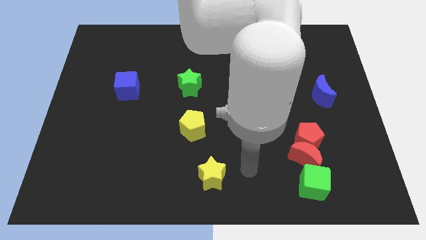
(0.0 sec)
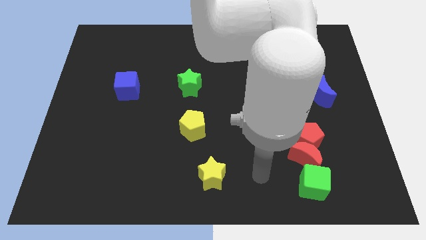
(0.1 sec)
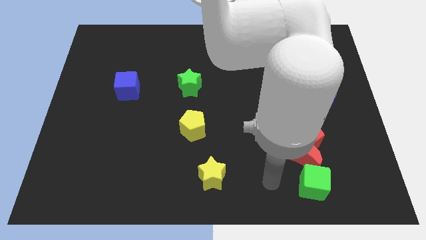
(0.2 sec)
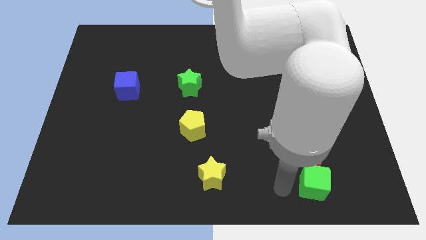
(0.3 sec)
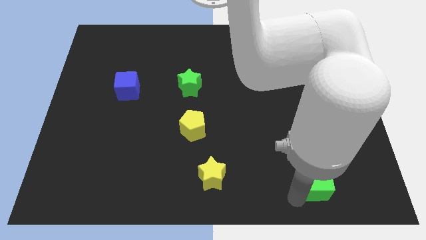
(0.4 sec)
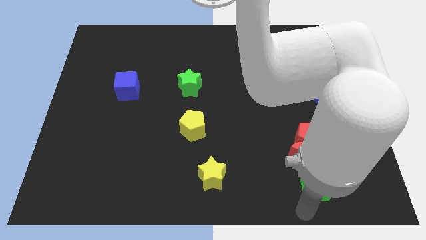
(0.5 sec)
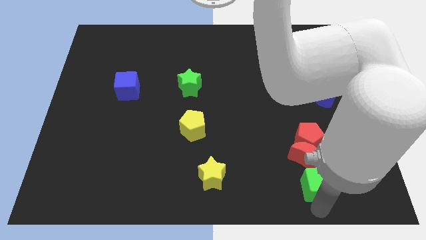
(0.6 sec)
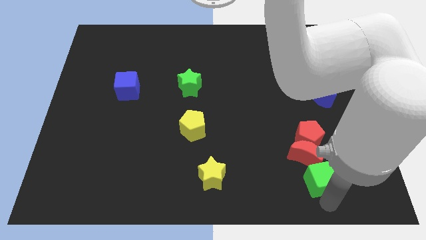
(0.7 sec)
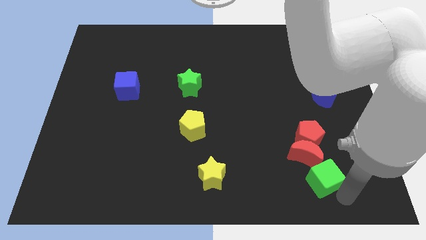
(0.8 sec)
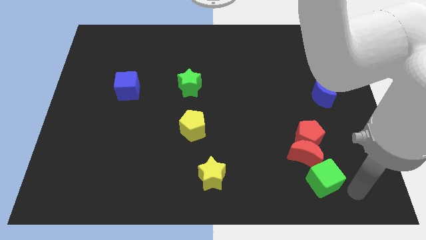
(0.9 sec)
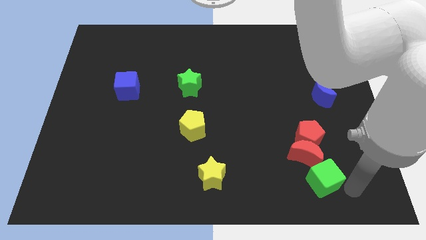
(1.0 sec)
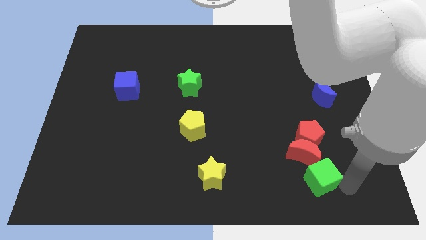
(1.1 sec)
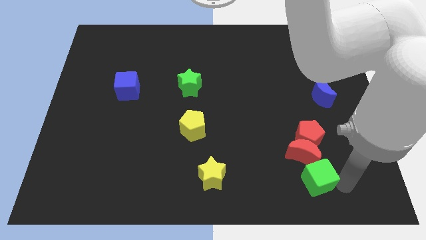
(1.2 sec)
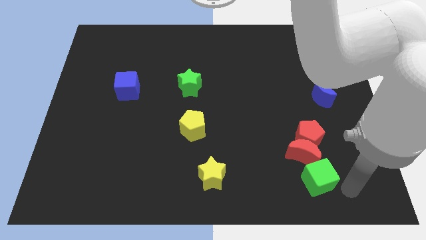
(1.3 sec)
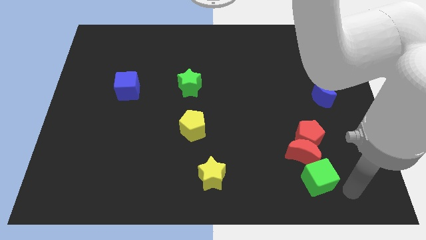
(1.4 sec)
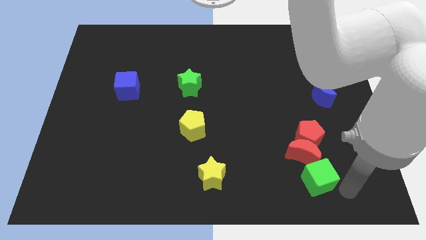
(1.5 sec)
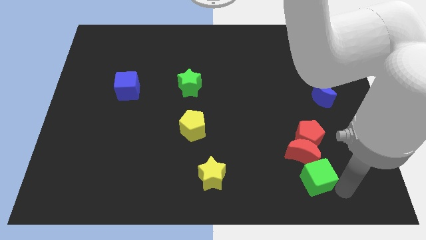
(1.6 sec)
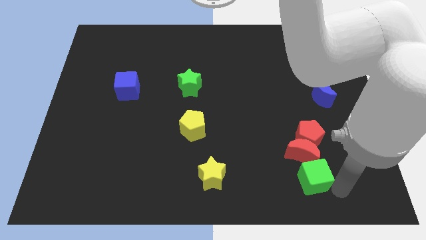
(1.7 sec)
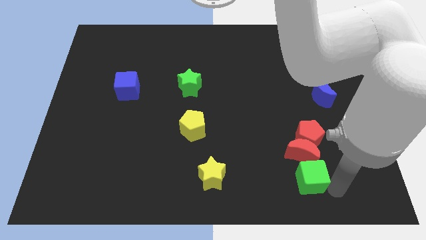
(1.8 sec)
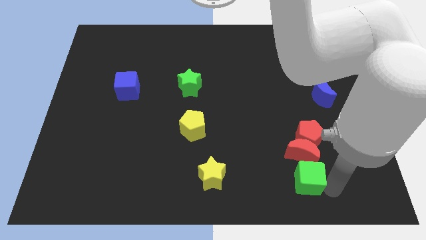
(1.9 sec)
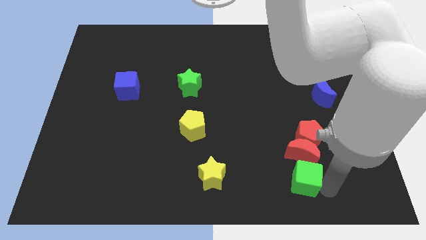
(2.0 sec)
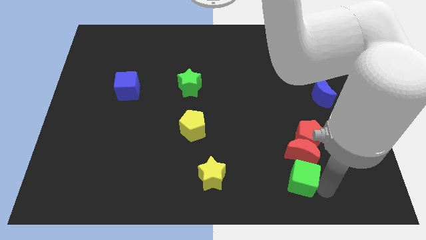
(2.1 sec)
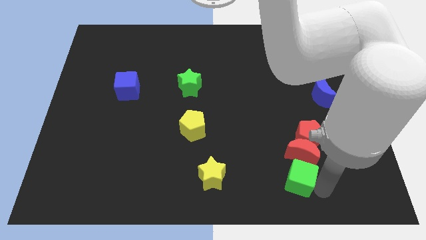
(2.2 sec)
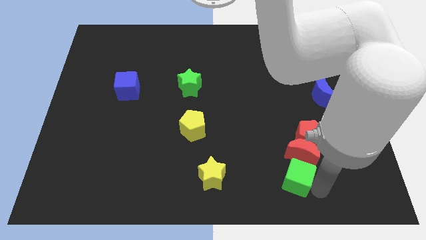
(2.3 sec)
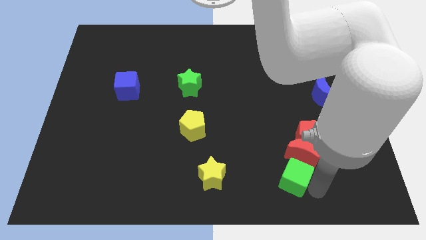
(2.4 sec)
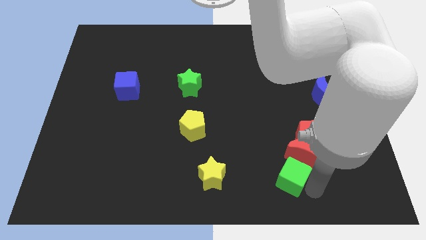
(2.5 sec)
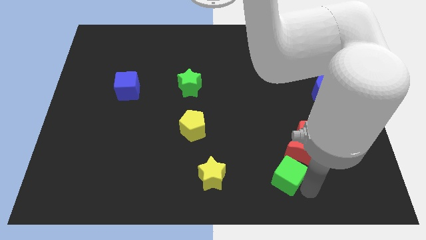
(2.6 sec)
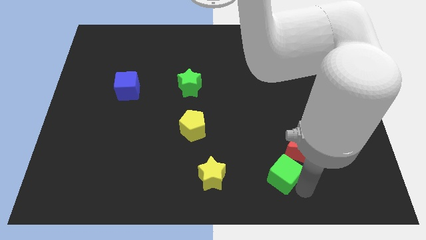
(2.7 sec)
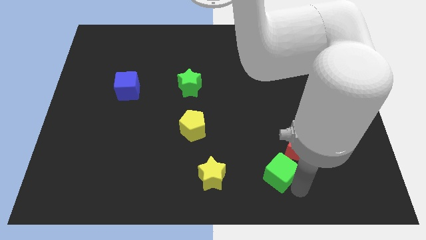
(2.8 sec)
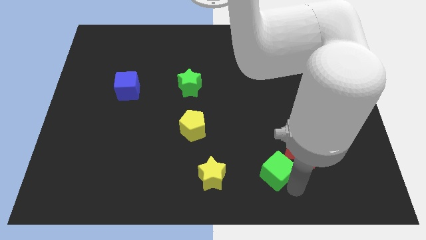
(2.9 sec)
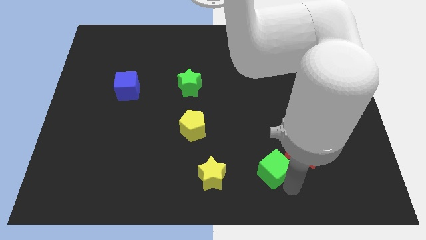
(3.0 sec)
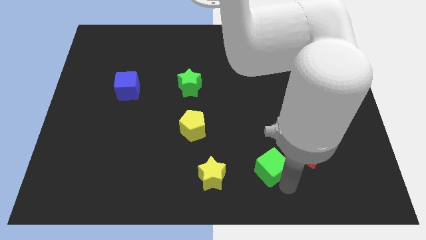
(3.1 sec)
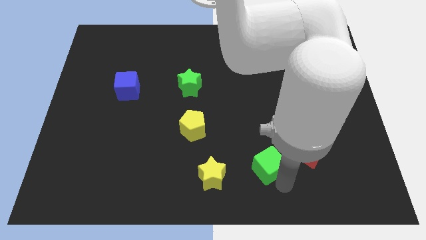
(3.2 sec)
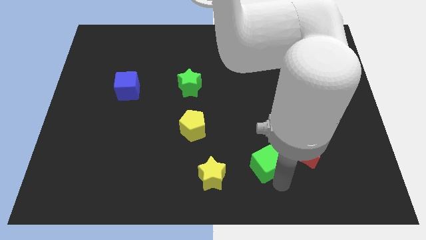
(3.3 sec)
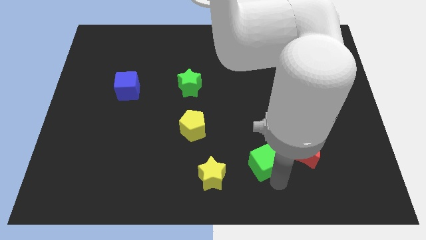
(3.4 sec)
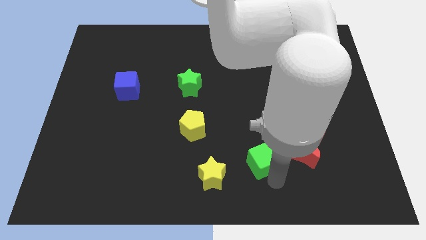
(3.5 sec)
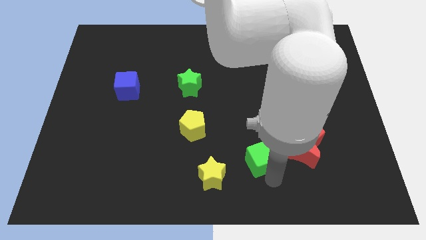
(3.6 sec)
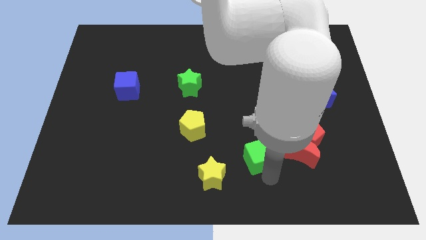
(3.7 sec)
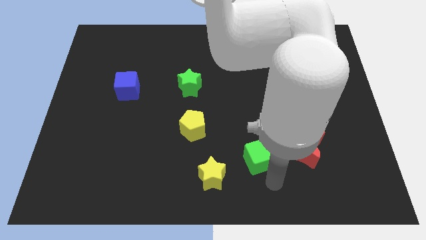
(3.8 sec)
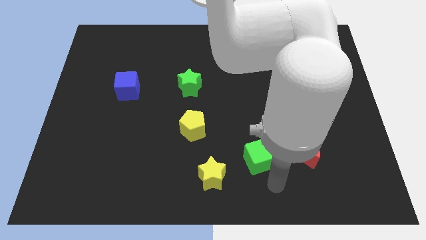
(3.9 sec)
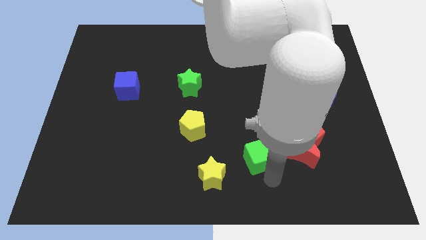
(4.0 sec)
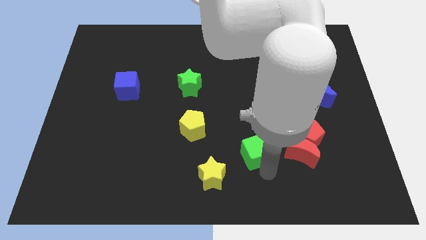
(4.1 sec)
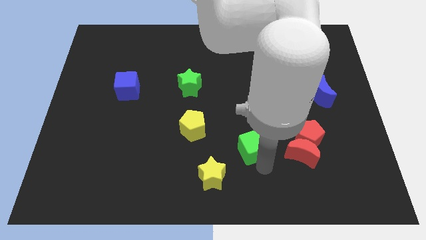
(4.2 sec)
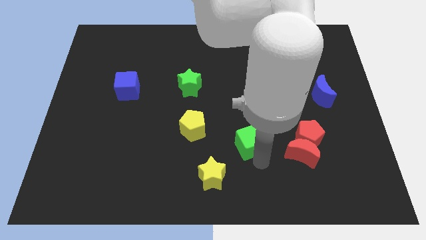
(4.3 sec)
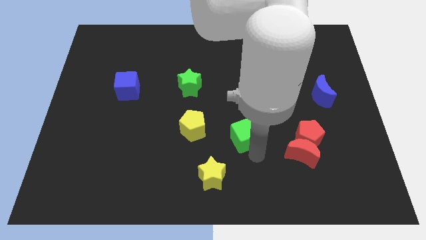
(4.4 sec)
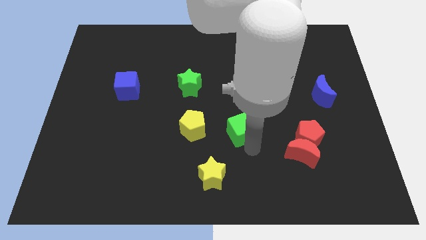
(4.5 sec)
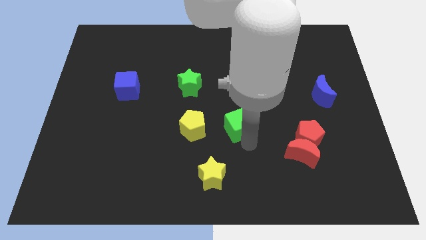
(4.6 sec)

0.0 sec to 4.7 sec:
move the green cube upwards and left

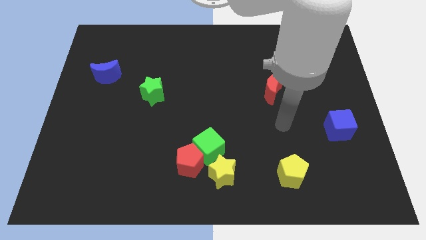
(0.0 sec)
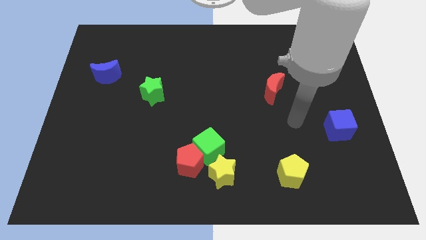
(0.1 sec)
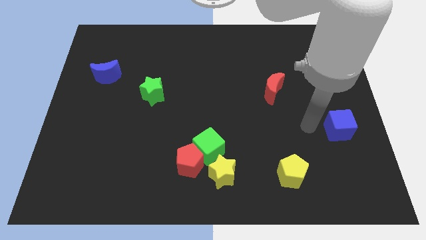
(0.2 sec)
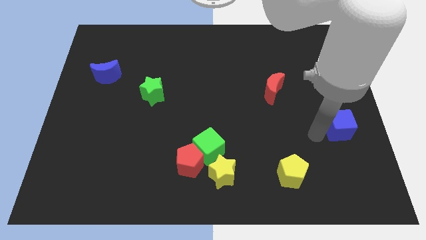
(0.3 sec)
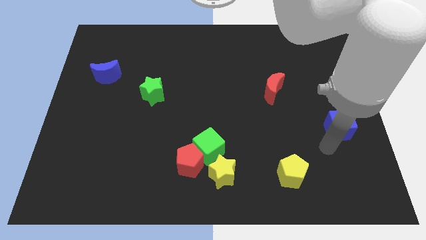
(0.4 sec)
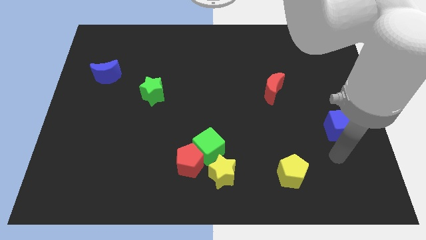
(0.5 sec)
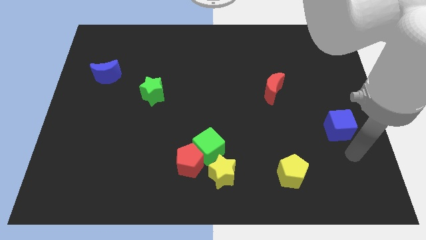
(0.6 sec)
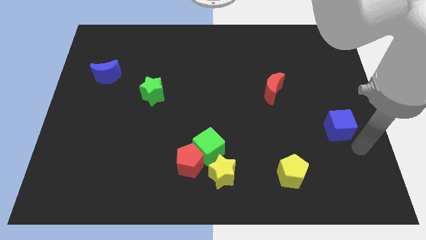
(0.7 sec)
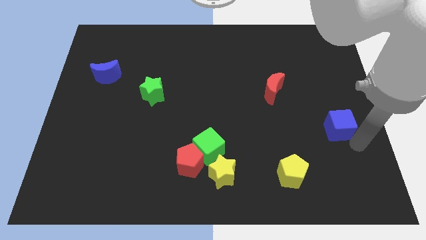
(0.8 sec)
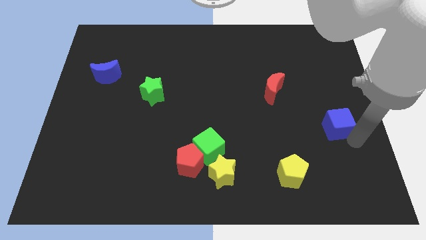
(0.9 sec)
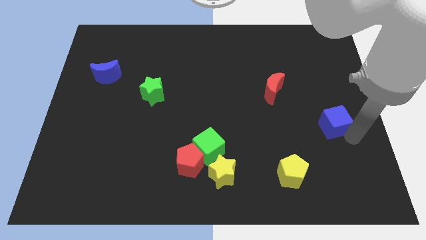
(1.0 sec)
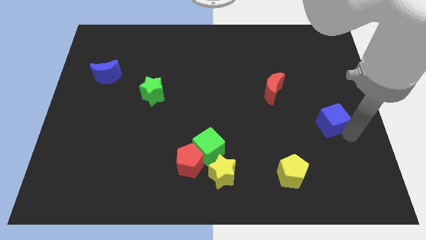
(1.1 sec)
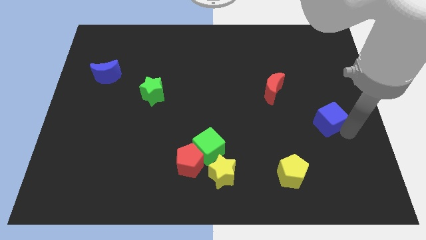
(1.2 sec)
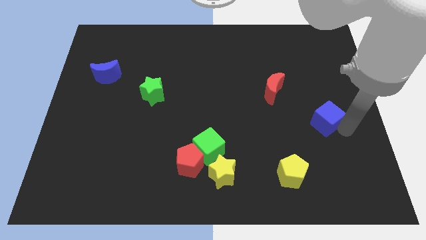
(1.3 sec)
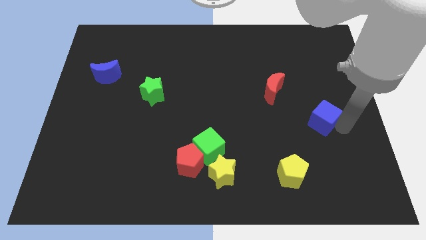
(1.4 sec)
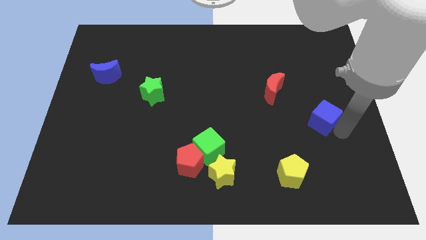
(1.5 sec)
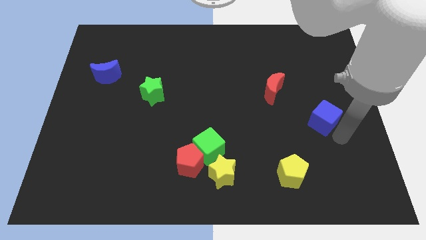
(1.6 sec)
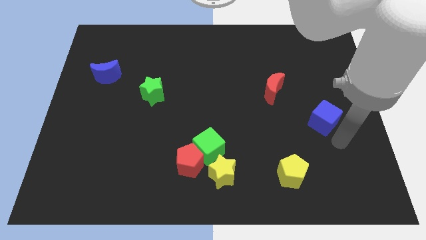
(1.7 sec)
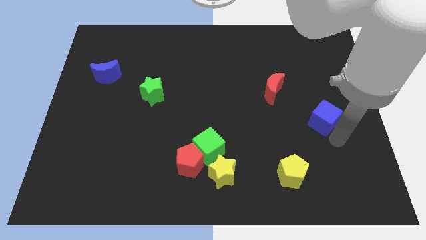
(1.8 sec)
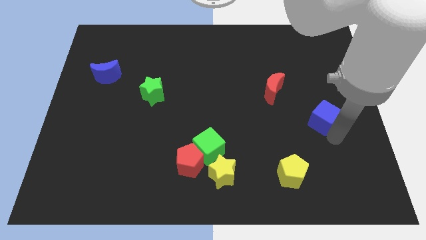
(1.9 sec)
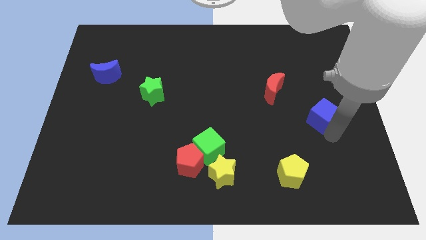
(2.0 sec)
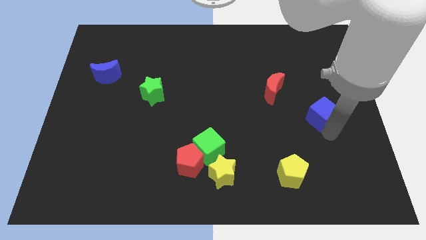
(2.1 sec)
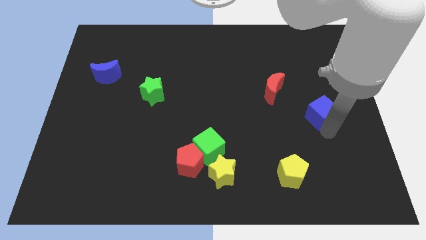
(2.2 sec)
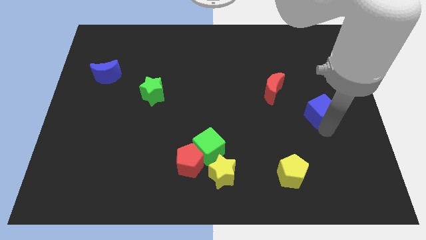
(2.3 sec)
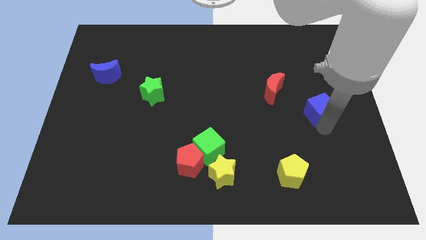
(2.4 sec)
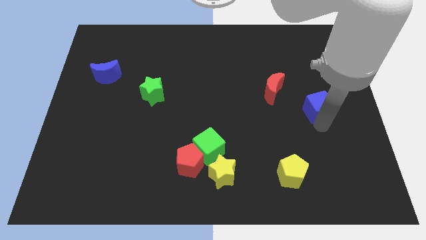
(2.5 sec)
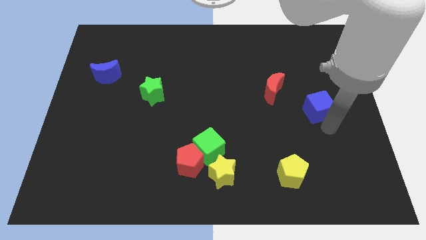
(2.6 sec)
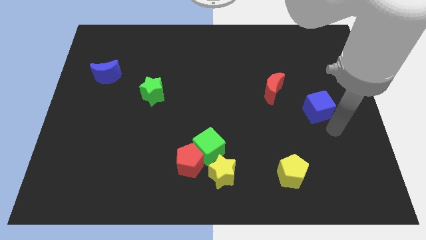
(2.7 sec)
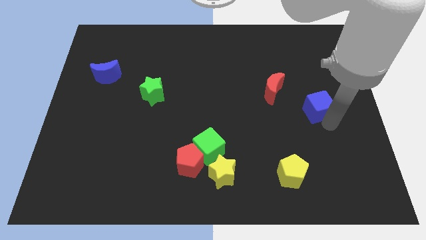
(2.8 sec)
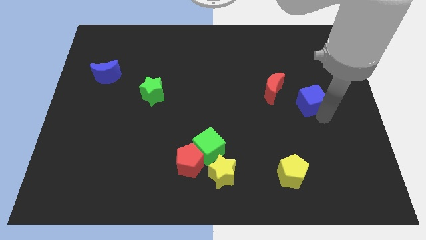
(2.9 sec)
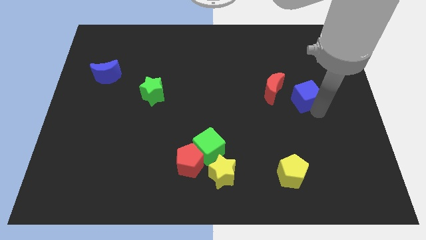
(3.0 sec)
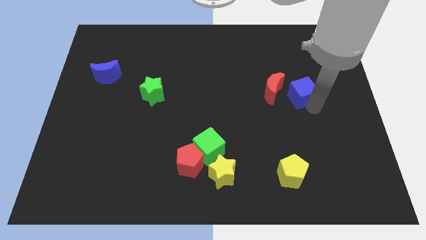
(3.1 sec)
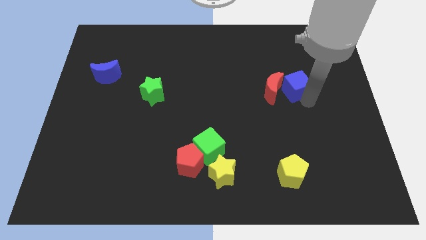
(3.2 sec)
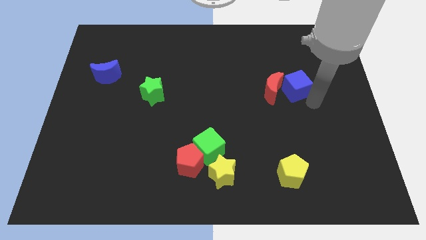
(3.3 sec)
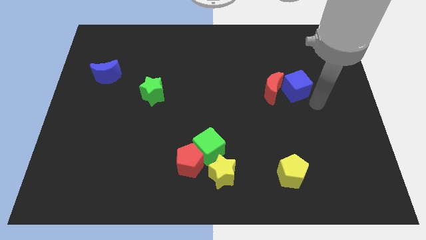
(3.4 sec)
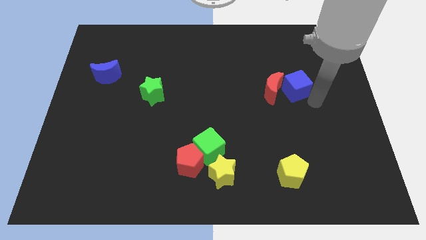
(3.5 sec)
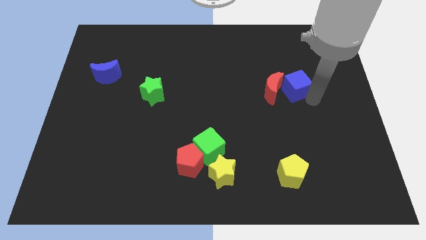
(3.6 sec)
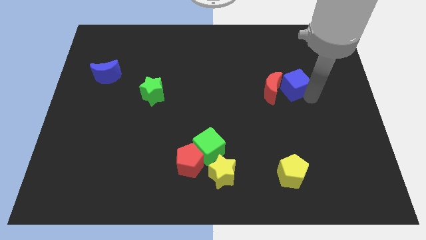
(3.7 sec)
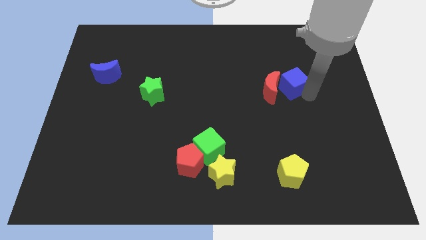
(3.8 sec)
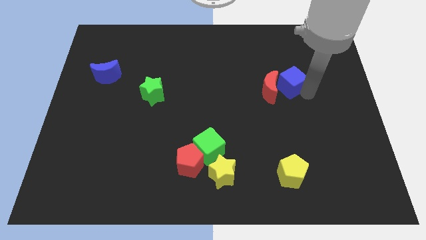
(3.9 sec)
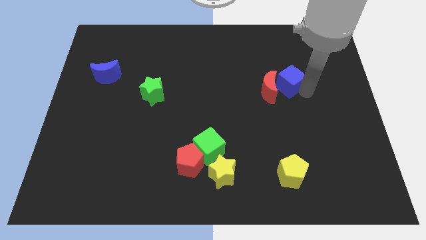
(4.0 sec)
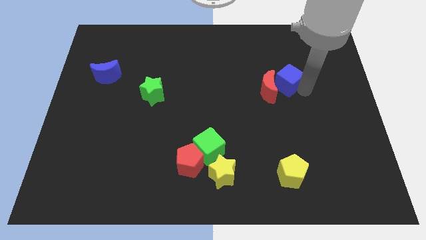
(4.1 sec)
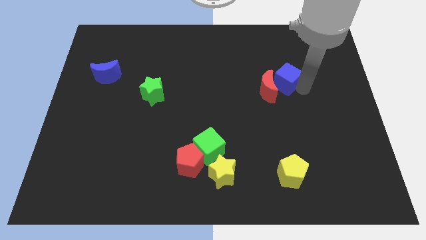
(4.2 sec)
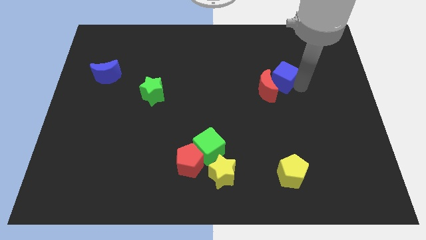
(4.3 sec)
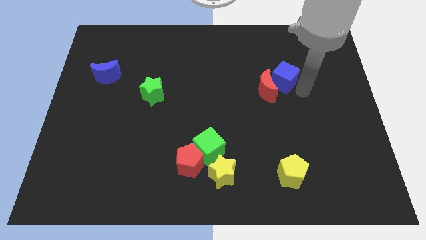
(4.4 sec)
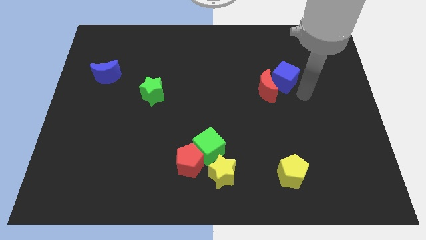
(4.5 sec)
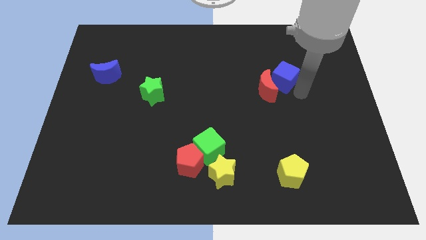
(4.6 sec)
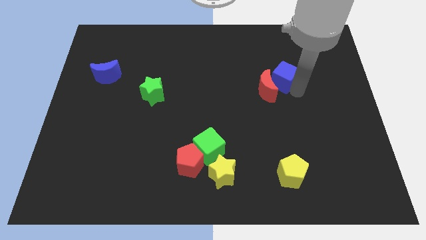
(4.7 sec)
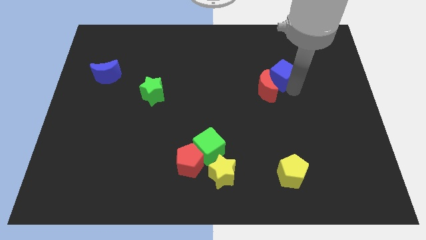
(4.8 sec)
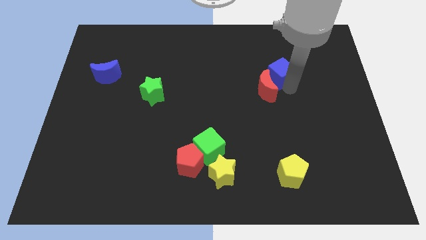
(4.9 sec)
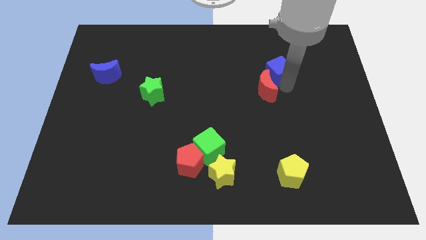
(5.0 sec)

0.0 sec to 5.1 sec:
slide the blue cube diagonally upwards and left
